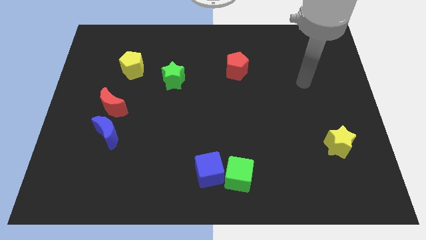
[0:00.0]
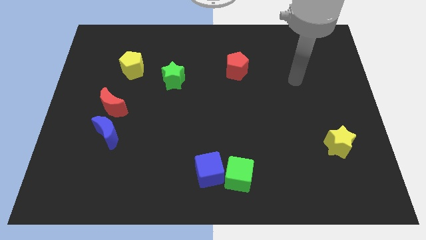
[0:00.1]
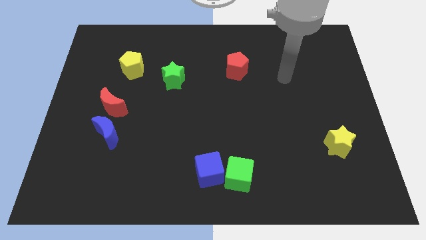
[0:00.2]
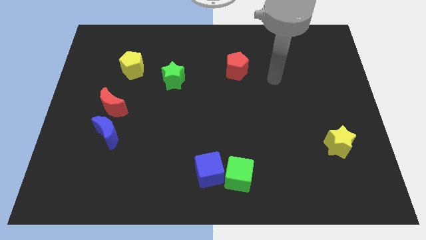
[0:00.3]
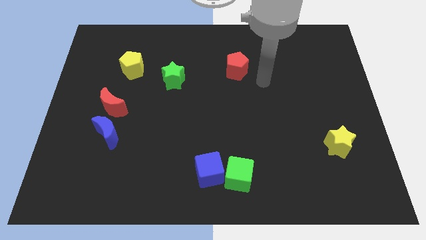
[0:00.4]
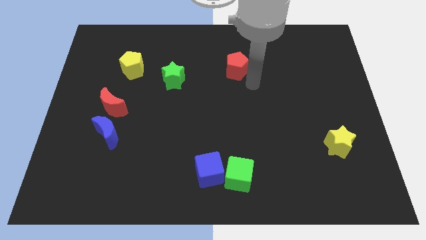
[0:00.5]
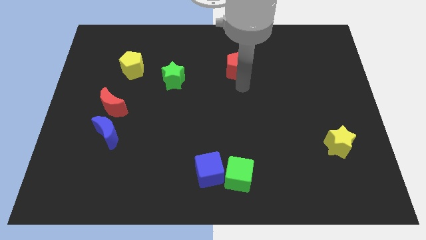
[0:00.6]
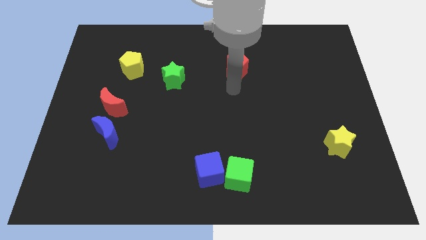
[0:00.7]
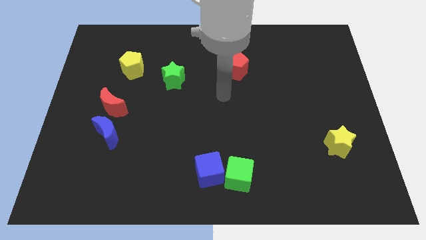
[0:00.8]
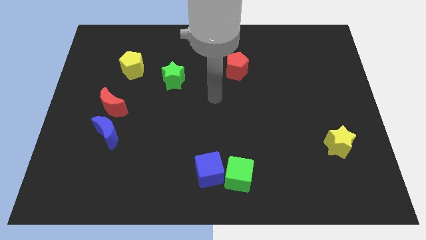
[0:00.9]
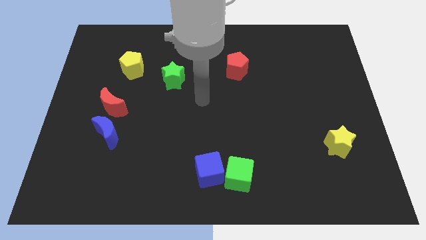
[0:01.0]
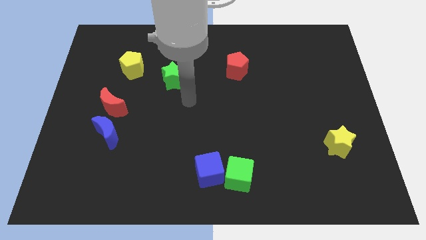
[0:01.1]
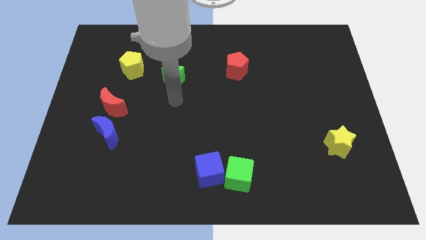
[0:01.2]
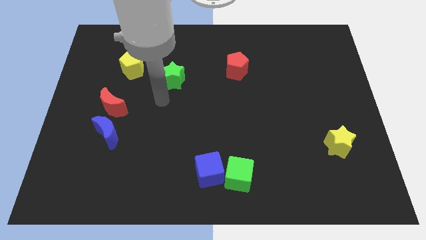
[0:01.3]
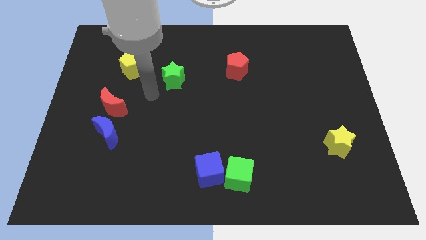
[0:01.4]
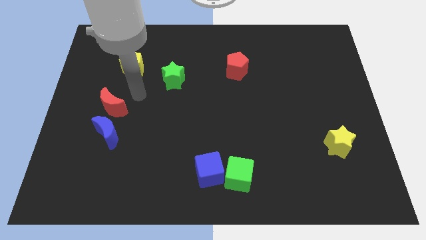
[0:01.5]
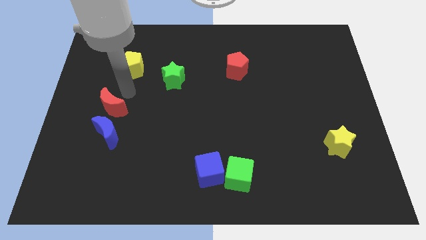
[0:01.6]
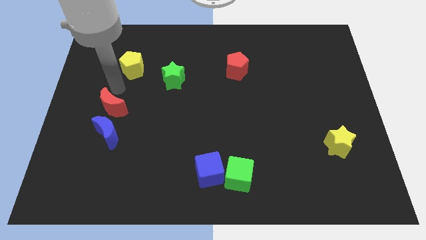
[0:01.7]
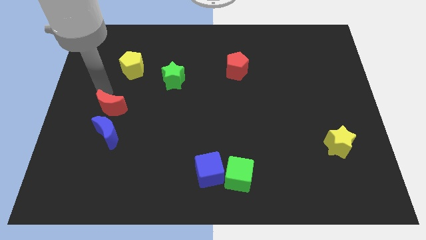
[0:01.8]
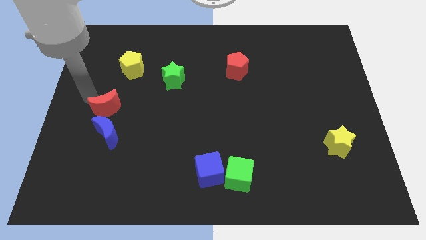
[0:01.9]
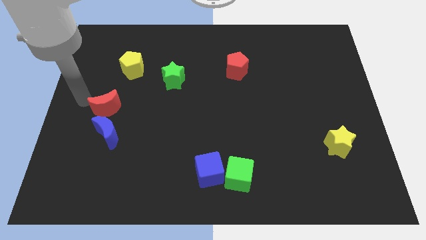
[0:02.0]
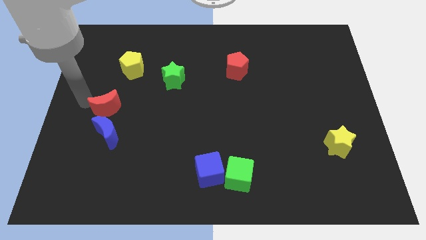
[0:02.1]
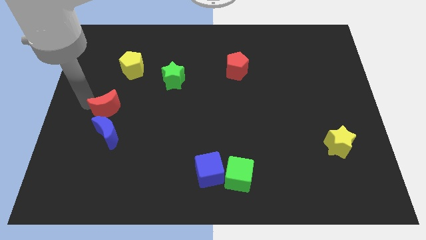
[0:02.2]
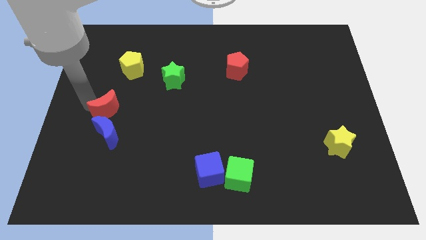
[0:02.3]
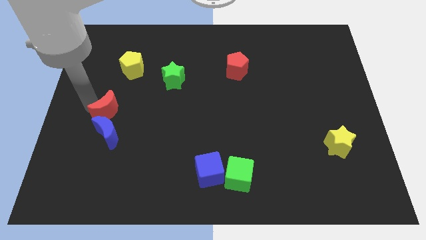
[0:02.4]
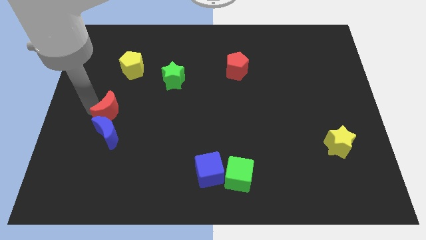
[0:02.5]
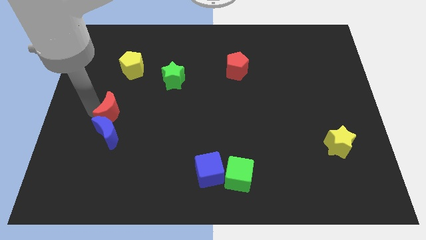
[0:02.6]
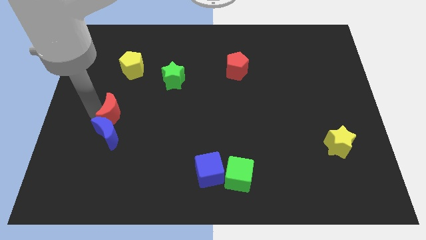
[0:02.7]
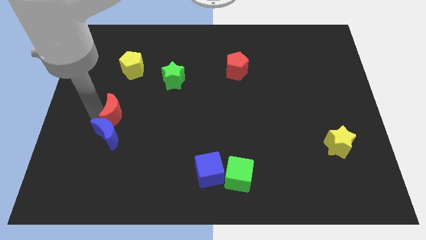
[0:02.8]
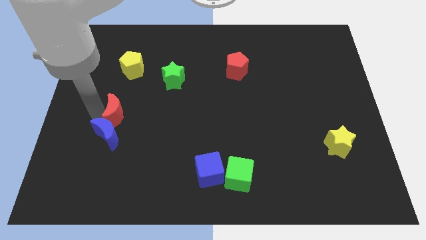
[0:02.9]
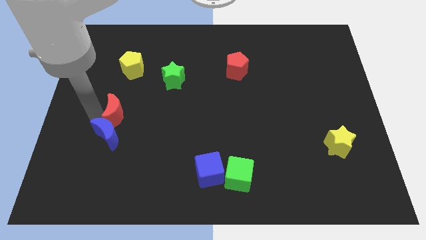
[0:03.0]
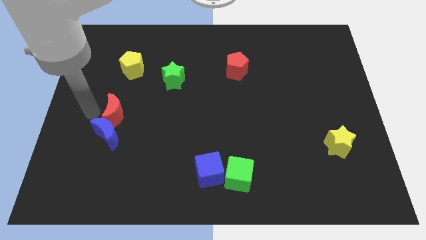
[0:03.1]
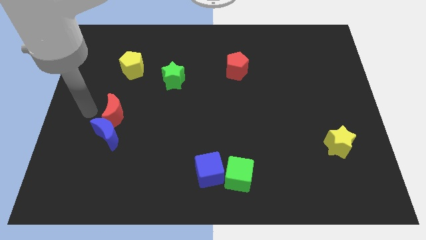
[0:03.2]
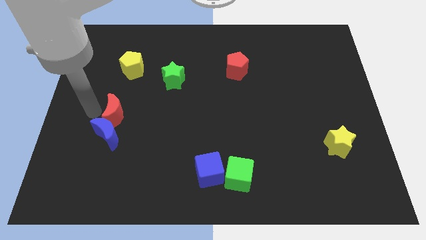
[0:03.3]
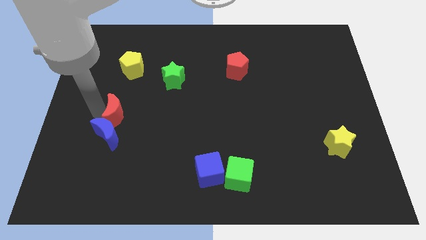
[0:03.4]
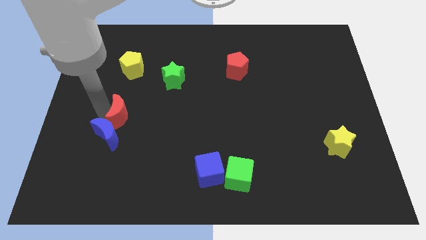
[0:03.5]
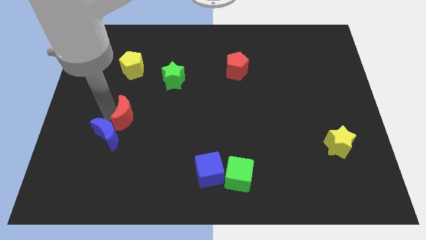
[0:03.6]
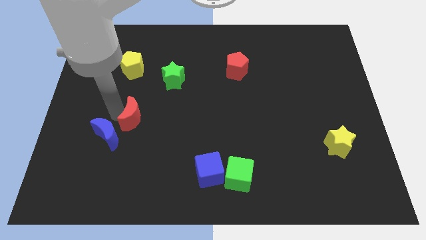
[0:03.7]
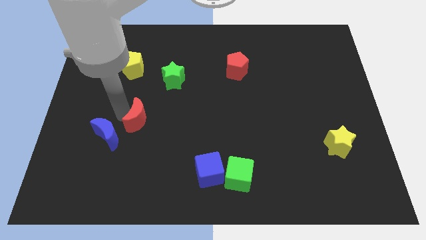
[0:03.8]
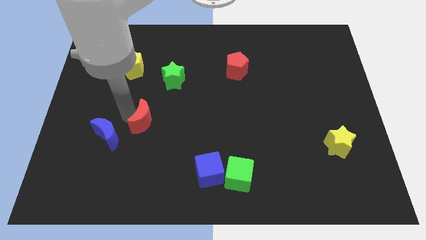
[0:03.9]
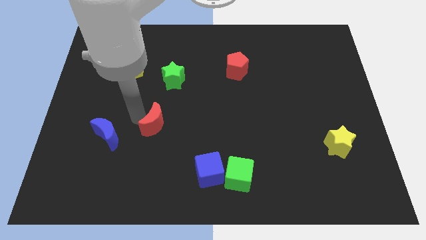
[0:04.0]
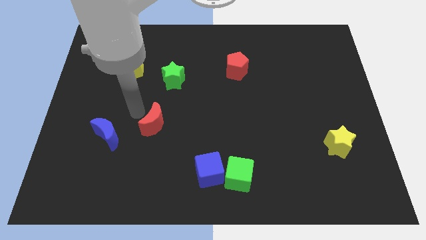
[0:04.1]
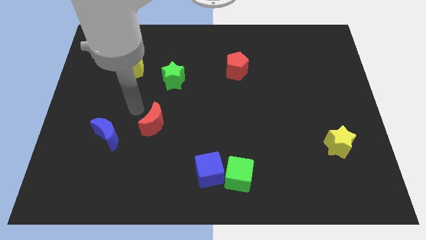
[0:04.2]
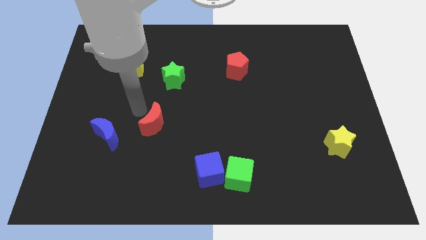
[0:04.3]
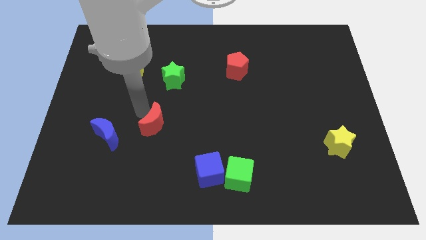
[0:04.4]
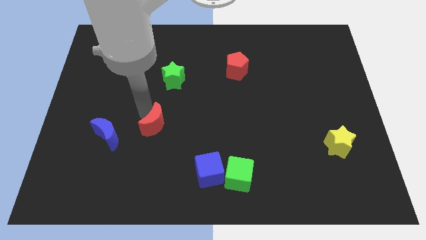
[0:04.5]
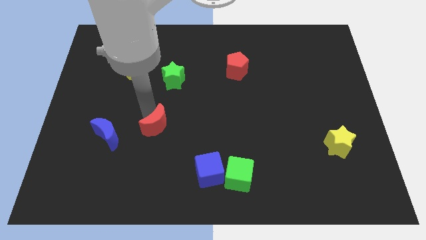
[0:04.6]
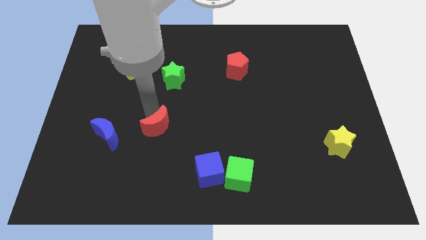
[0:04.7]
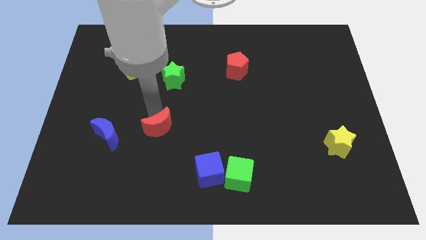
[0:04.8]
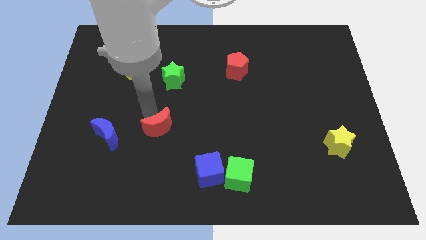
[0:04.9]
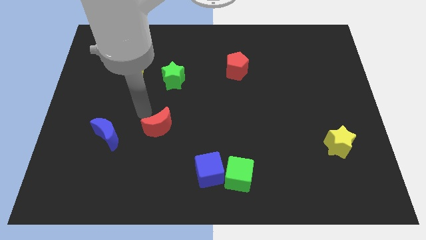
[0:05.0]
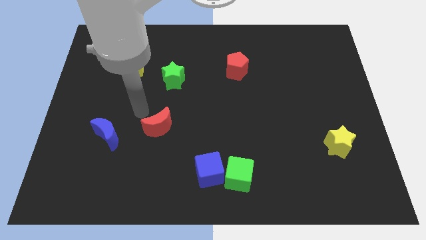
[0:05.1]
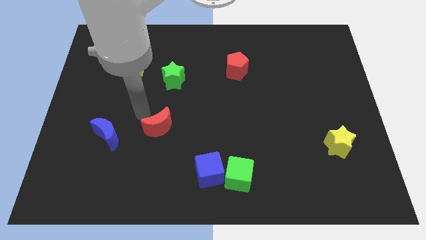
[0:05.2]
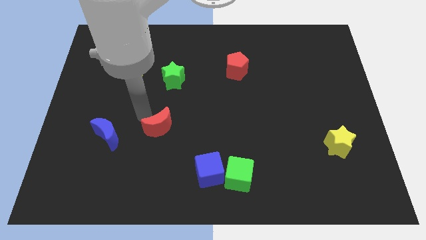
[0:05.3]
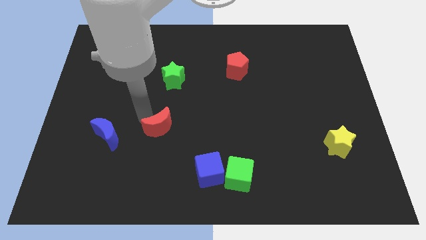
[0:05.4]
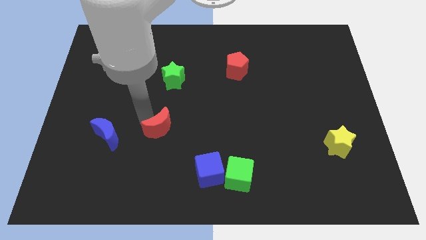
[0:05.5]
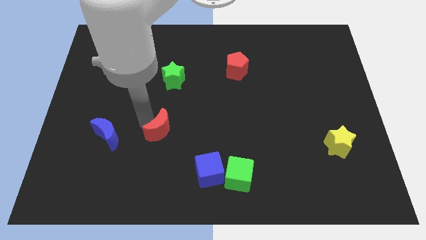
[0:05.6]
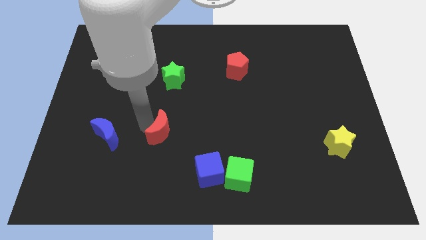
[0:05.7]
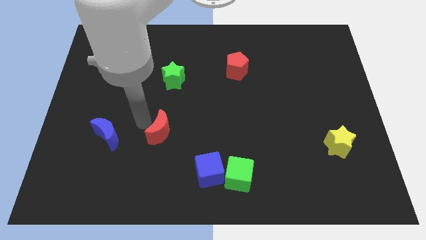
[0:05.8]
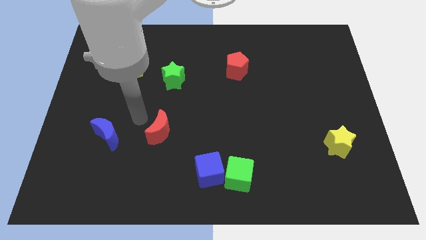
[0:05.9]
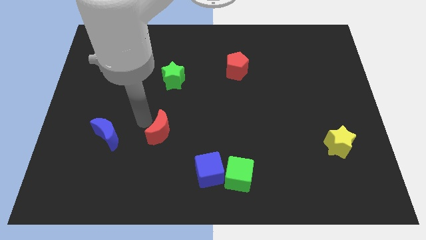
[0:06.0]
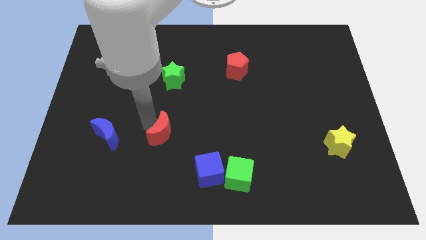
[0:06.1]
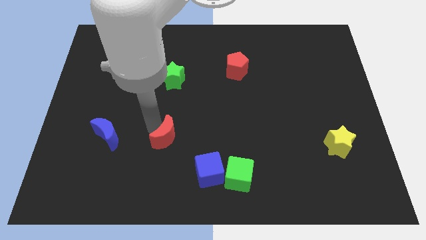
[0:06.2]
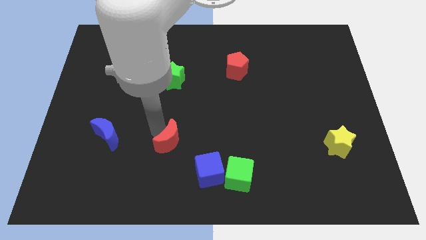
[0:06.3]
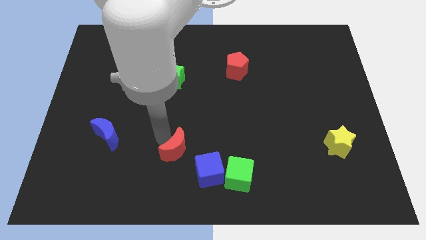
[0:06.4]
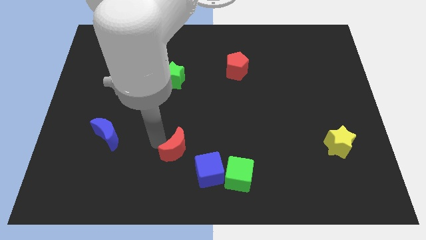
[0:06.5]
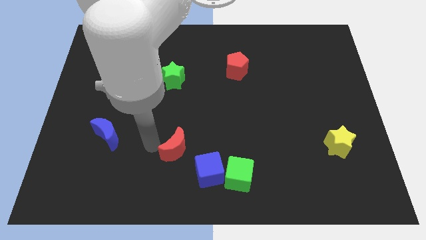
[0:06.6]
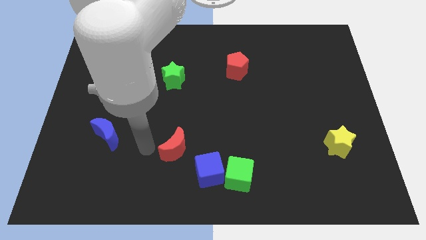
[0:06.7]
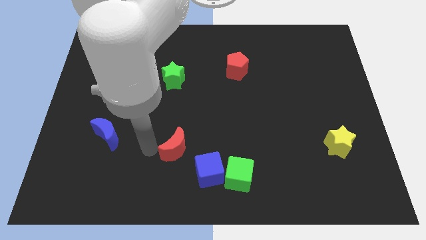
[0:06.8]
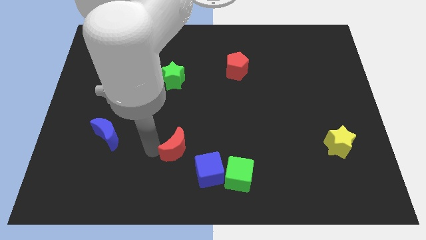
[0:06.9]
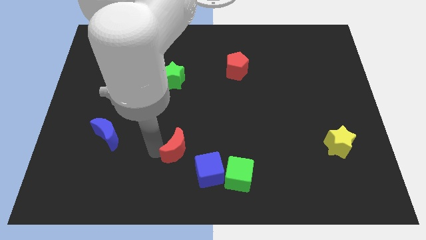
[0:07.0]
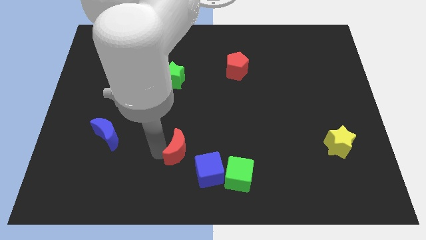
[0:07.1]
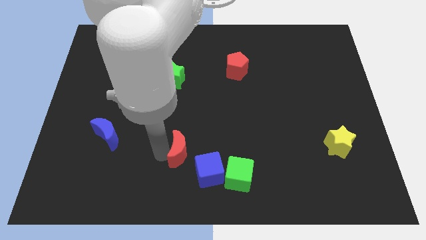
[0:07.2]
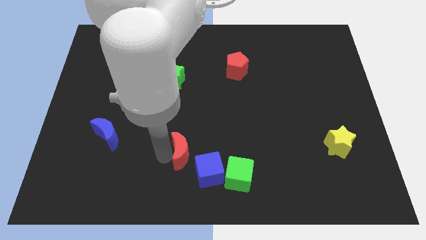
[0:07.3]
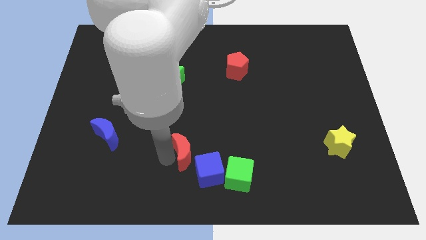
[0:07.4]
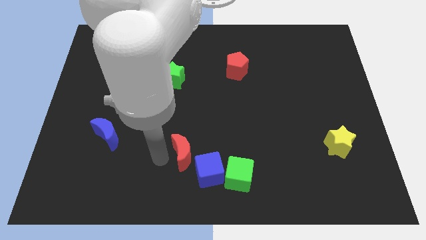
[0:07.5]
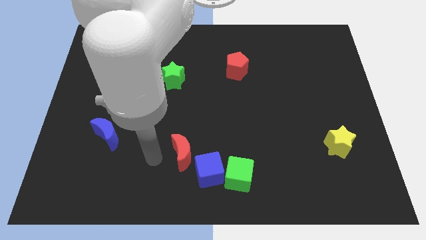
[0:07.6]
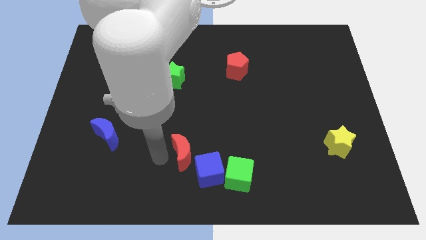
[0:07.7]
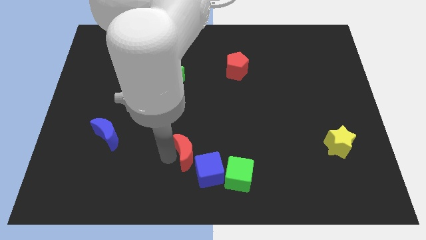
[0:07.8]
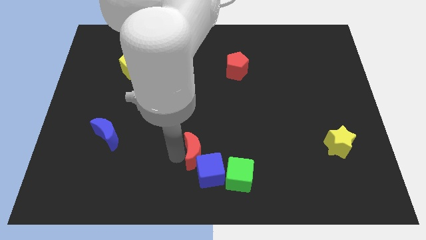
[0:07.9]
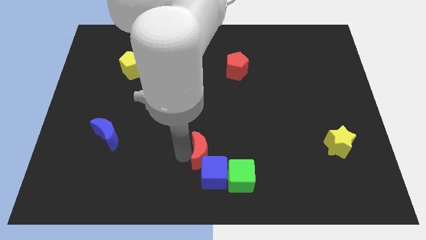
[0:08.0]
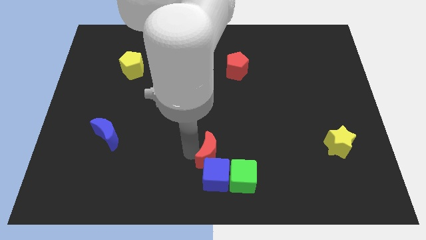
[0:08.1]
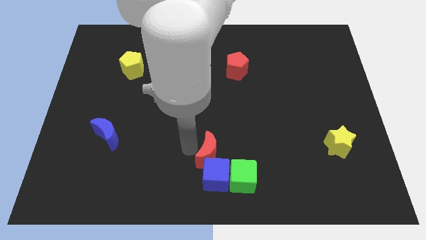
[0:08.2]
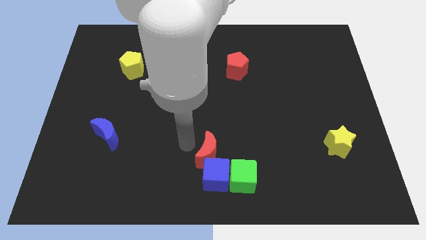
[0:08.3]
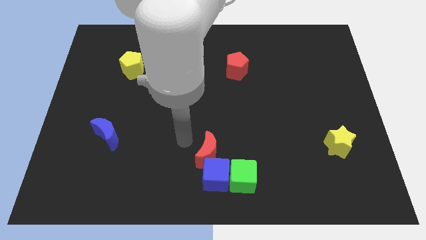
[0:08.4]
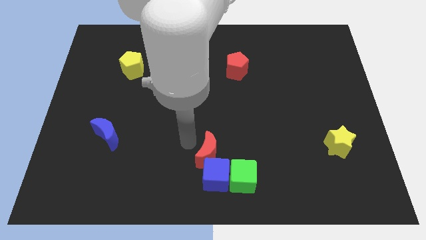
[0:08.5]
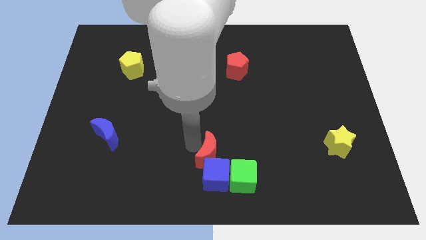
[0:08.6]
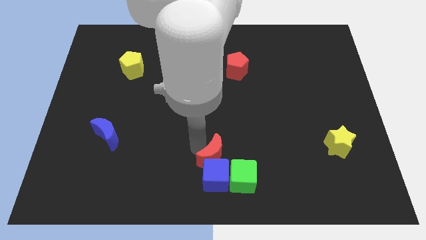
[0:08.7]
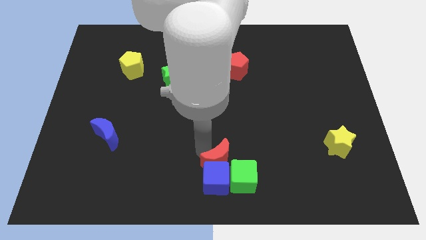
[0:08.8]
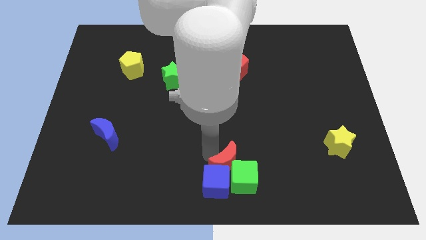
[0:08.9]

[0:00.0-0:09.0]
put the red moon to the green cube
